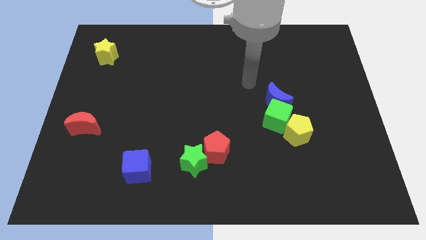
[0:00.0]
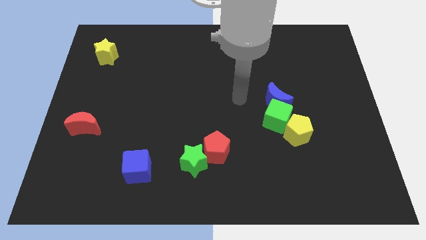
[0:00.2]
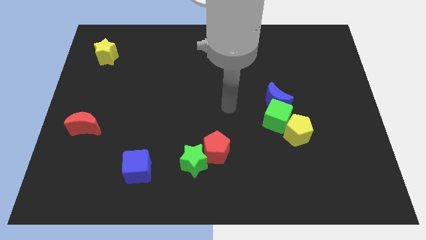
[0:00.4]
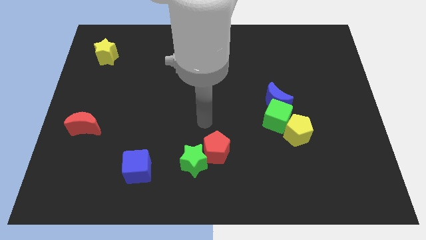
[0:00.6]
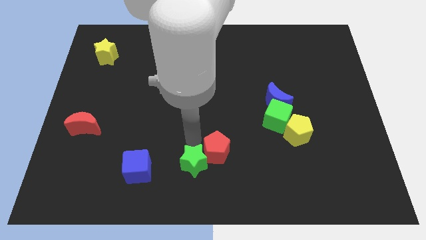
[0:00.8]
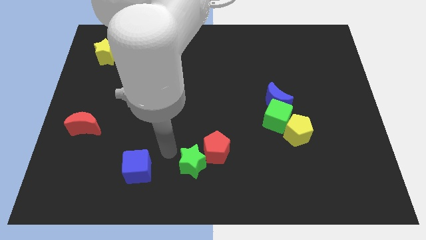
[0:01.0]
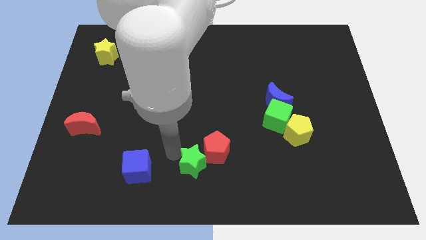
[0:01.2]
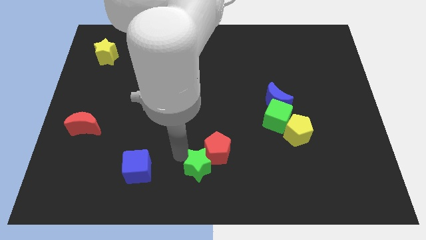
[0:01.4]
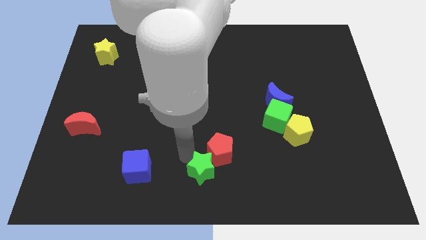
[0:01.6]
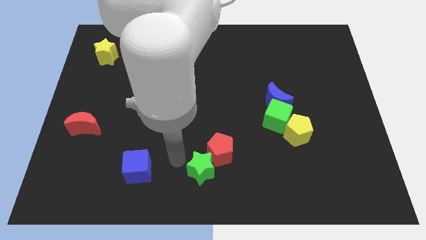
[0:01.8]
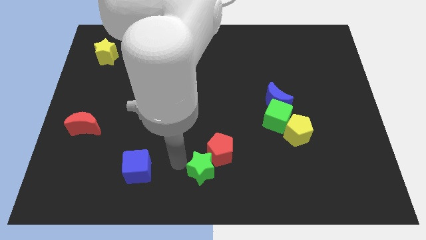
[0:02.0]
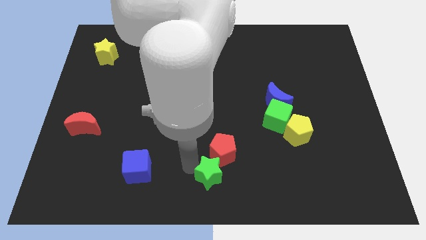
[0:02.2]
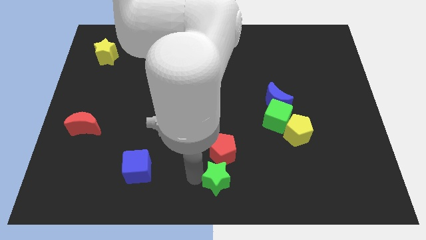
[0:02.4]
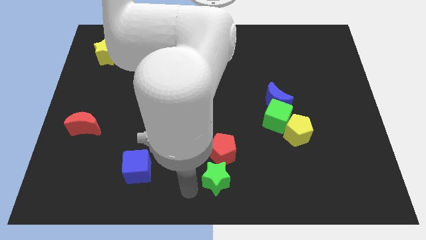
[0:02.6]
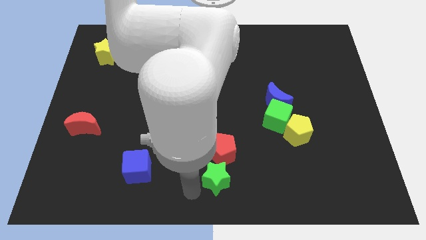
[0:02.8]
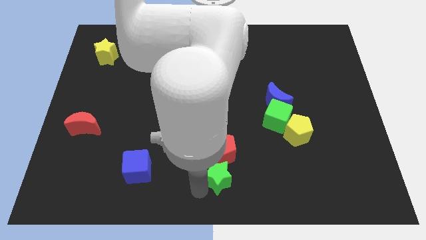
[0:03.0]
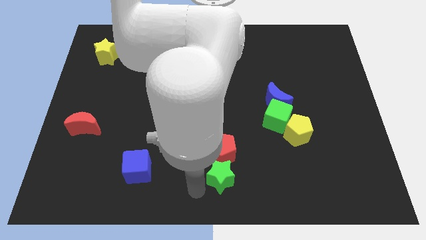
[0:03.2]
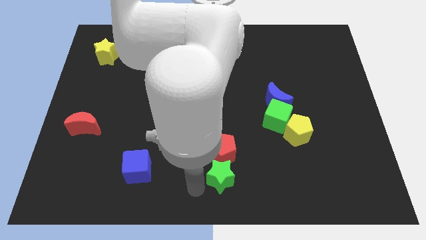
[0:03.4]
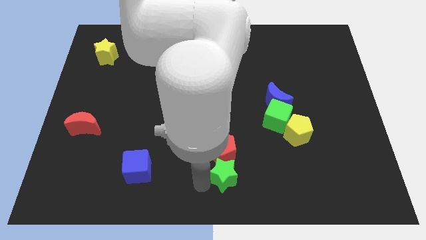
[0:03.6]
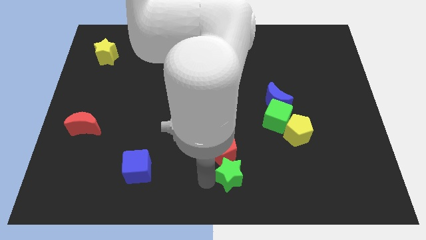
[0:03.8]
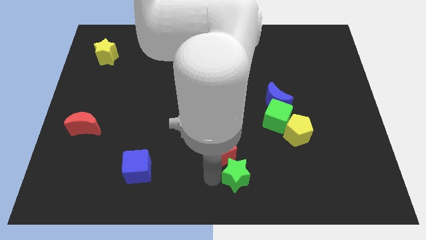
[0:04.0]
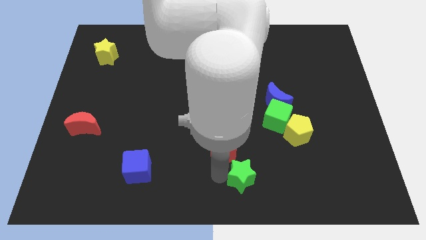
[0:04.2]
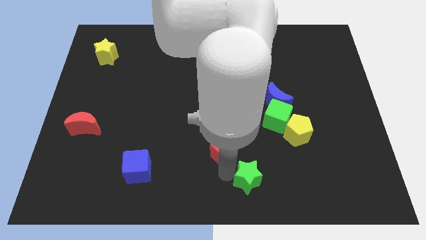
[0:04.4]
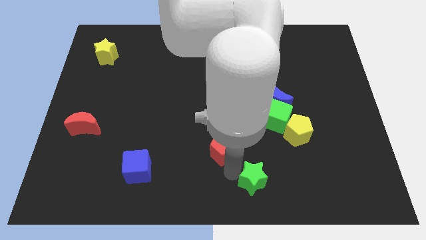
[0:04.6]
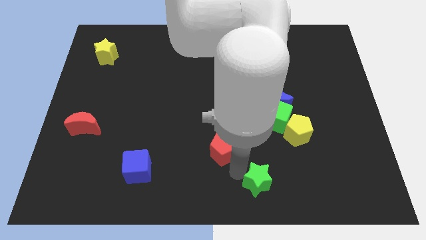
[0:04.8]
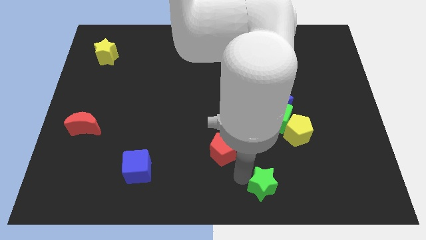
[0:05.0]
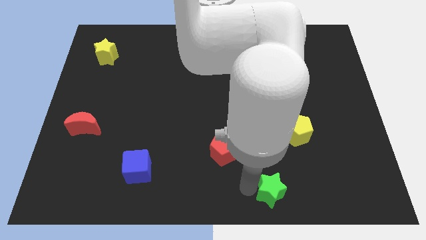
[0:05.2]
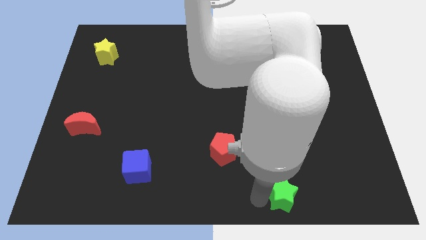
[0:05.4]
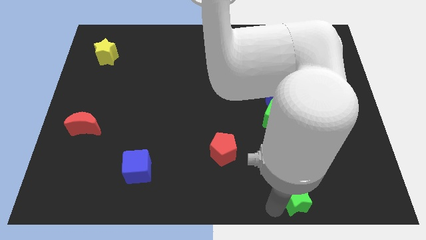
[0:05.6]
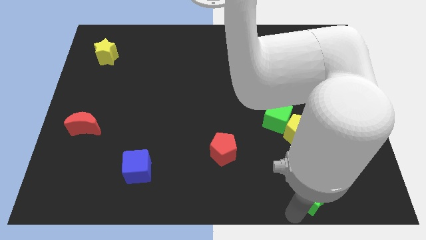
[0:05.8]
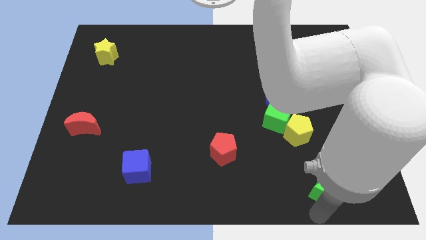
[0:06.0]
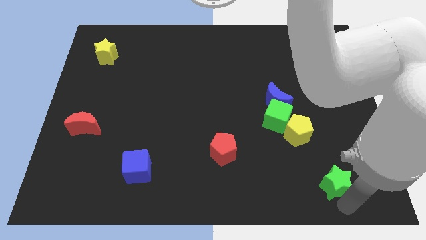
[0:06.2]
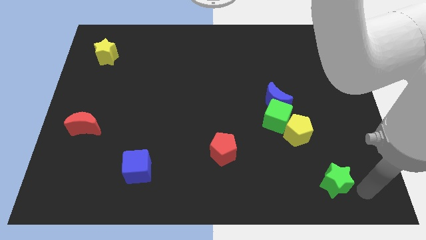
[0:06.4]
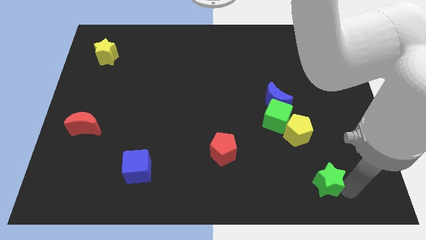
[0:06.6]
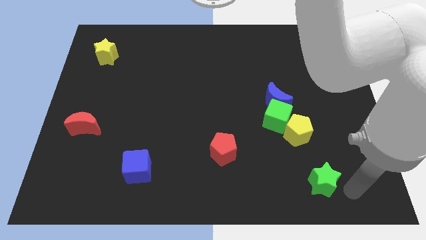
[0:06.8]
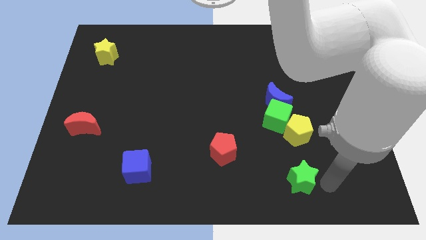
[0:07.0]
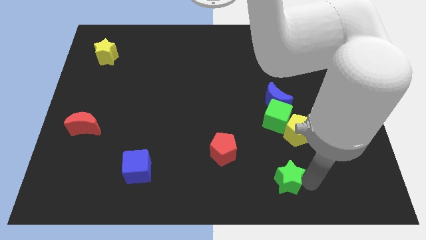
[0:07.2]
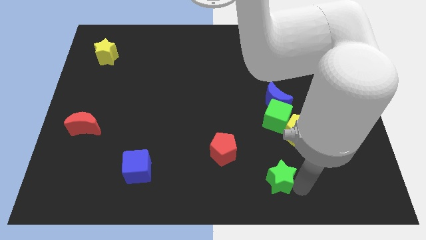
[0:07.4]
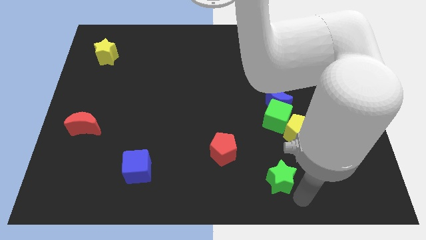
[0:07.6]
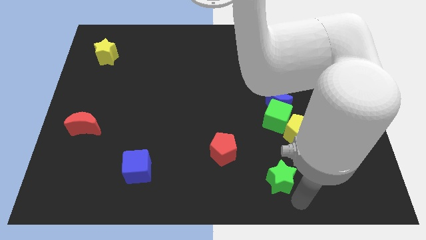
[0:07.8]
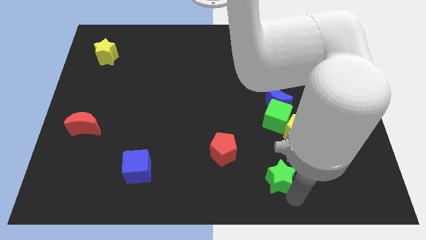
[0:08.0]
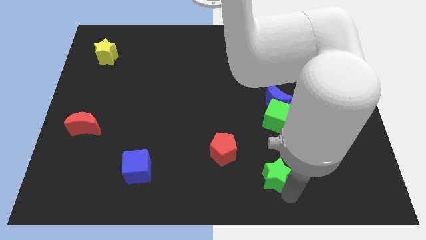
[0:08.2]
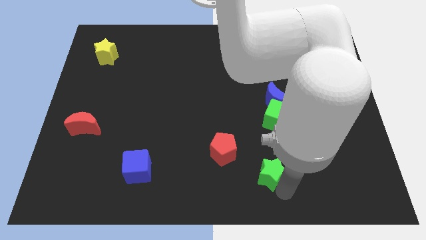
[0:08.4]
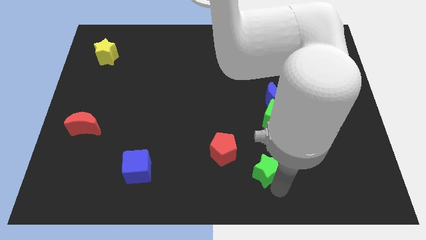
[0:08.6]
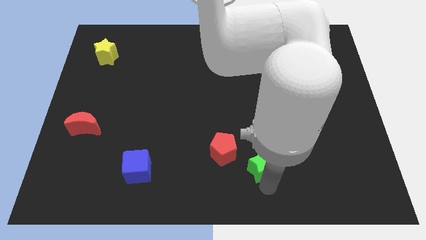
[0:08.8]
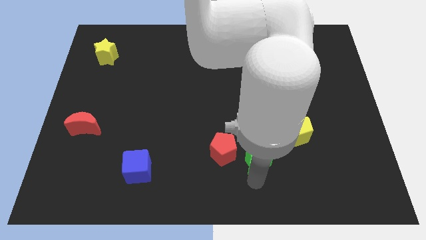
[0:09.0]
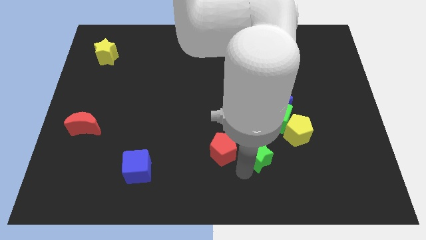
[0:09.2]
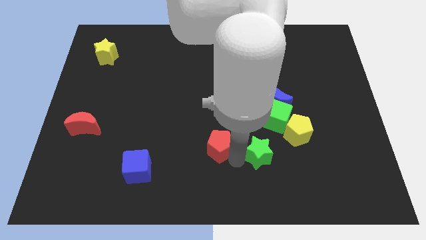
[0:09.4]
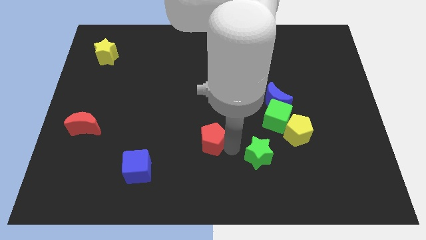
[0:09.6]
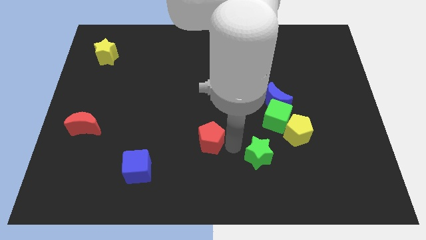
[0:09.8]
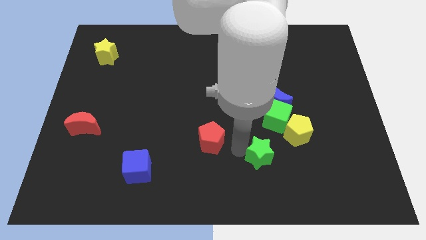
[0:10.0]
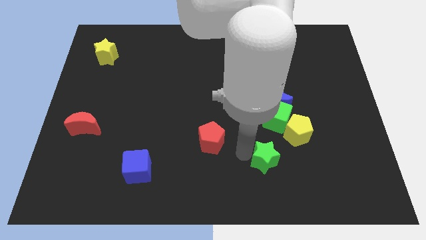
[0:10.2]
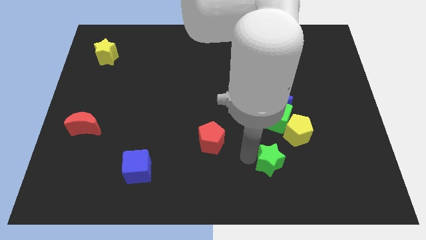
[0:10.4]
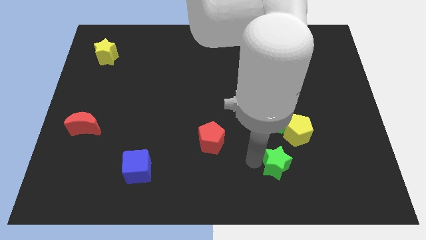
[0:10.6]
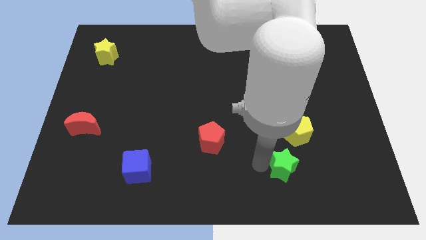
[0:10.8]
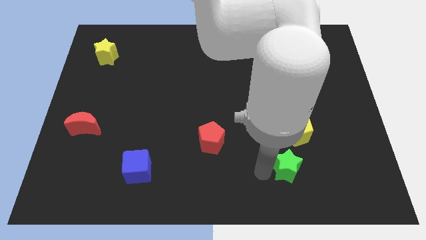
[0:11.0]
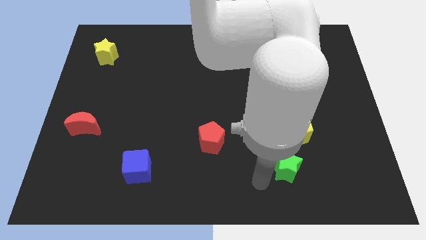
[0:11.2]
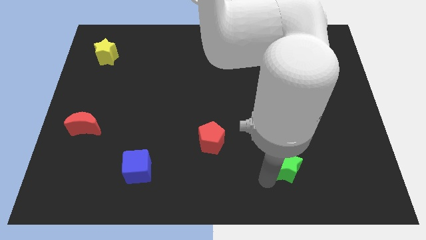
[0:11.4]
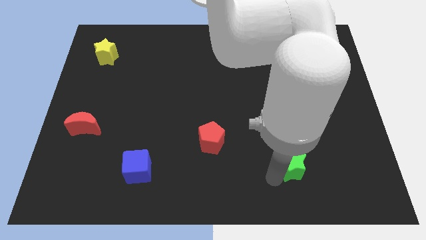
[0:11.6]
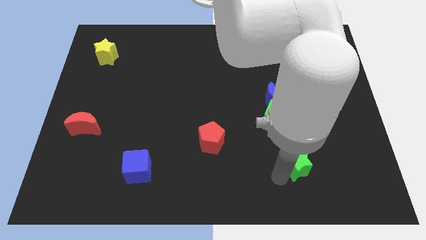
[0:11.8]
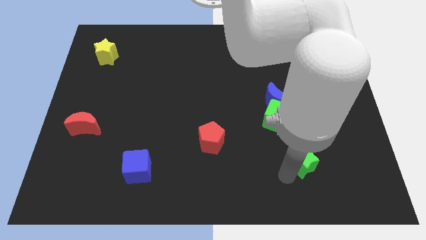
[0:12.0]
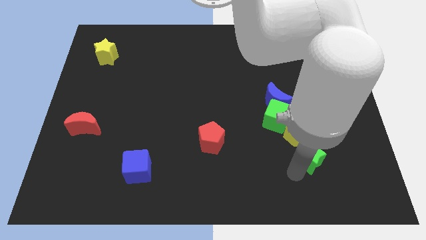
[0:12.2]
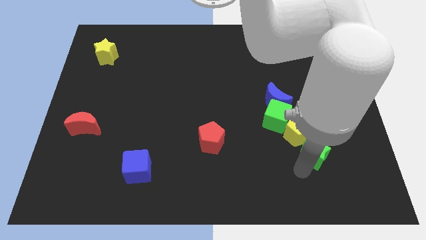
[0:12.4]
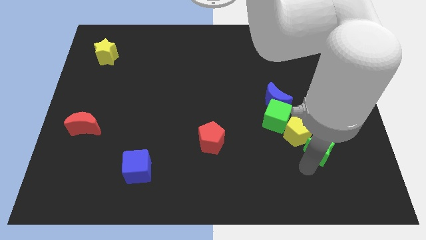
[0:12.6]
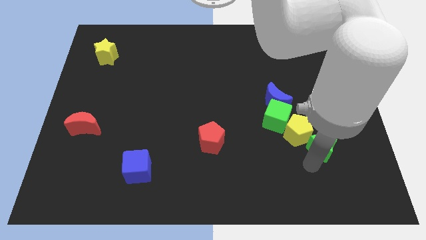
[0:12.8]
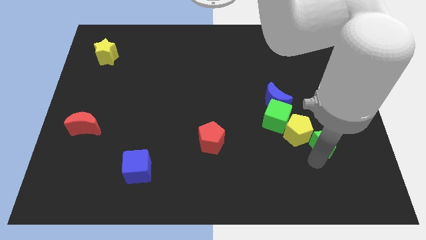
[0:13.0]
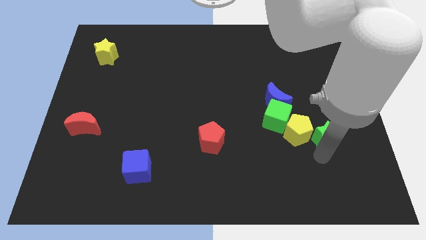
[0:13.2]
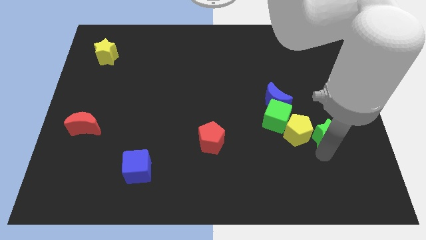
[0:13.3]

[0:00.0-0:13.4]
slide the green star to the top right side of the yellow pentagon
